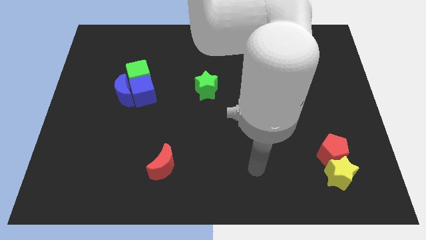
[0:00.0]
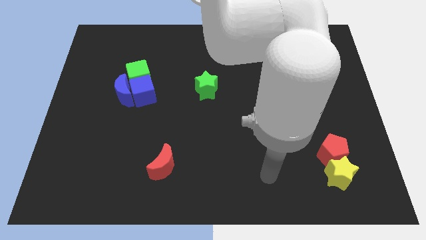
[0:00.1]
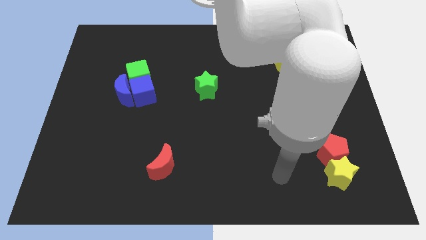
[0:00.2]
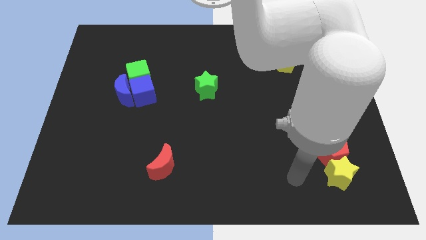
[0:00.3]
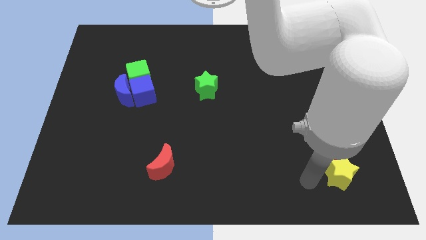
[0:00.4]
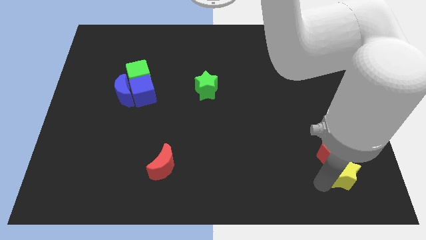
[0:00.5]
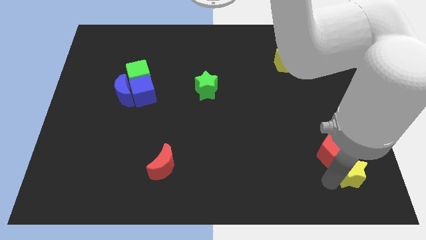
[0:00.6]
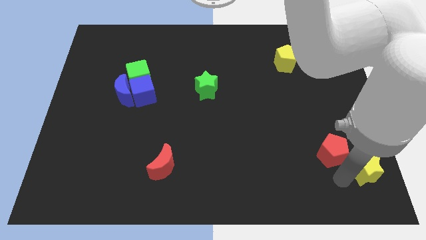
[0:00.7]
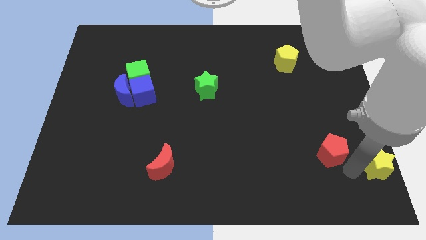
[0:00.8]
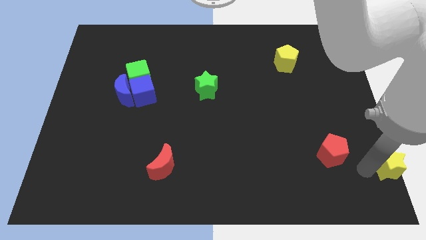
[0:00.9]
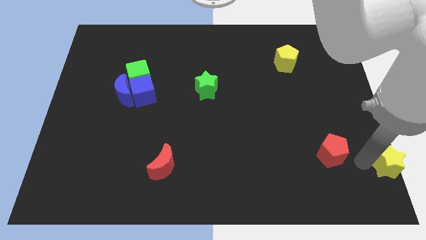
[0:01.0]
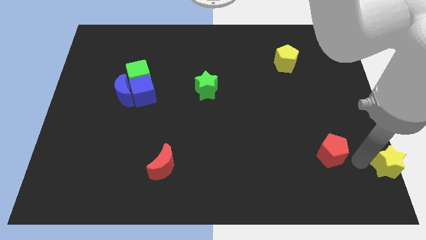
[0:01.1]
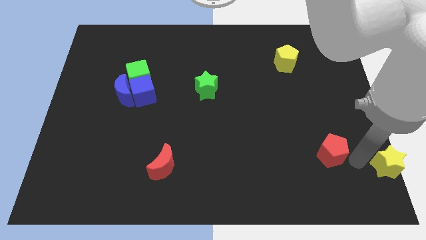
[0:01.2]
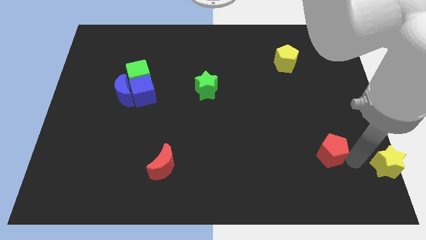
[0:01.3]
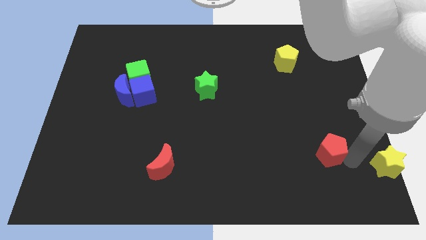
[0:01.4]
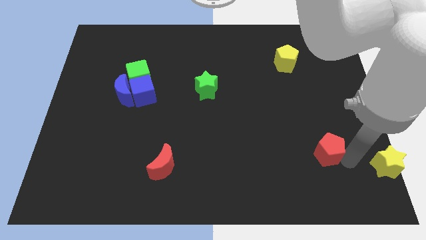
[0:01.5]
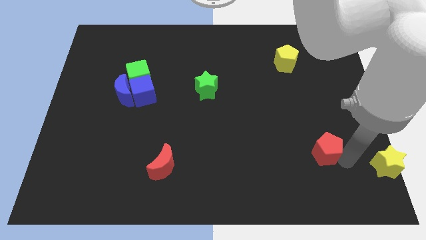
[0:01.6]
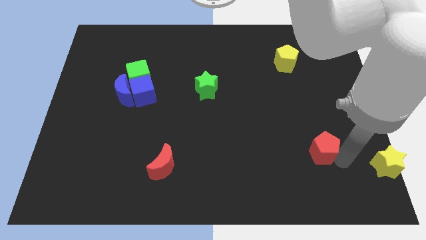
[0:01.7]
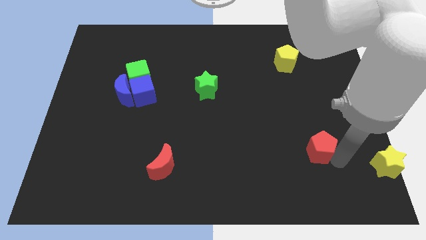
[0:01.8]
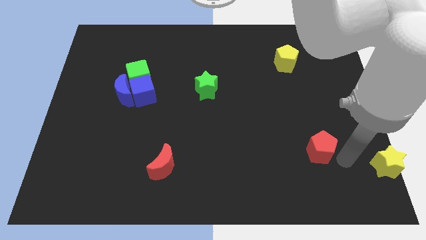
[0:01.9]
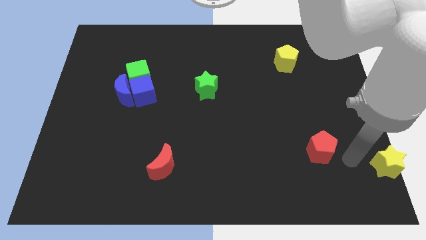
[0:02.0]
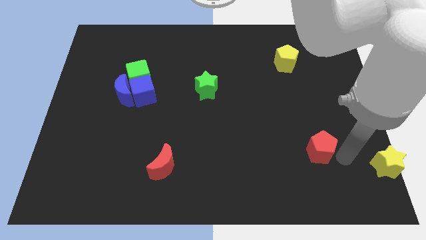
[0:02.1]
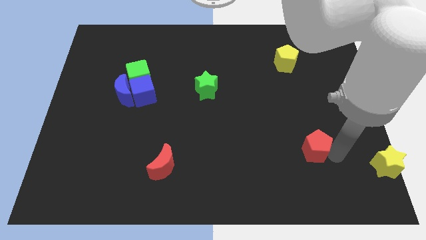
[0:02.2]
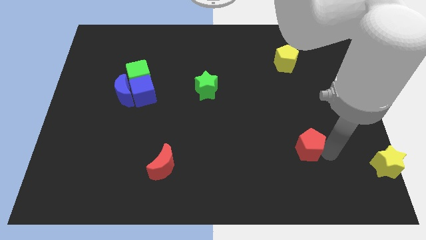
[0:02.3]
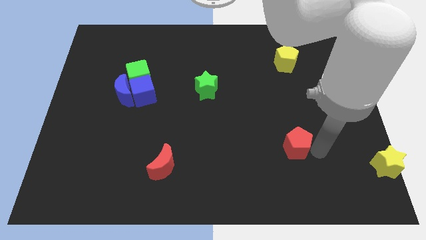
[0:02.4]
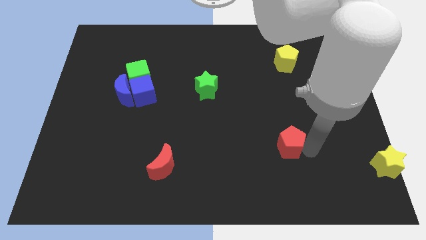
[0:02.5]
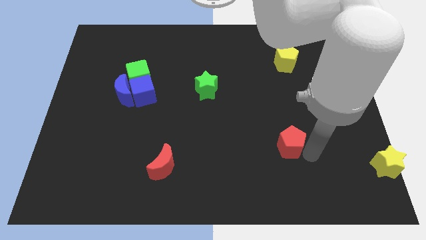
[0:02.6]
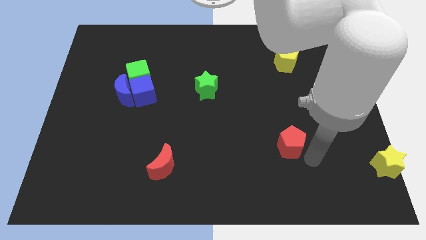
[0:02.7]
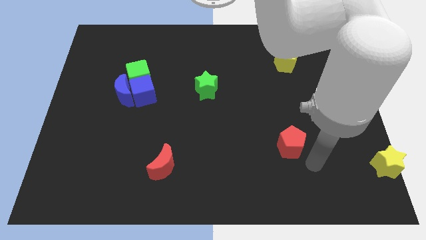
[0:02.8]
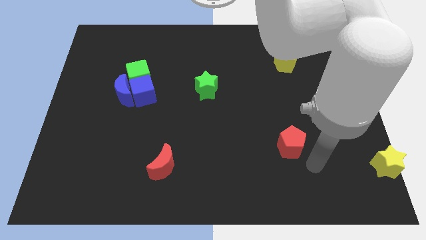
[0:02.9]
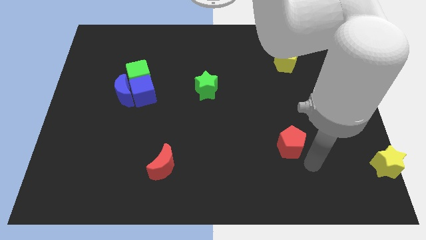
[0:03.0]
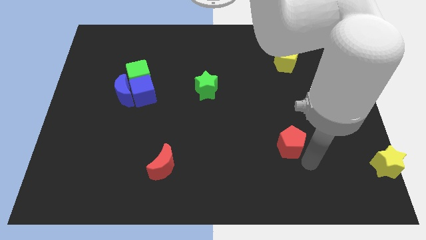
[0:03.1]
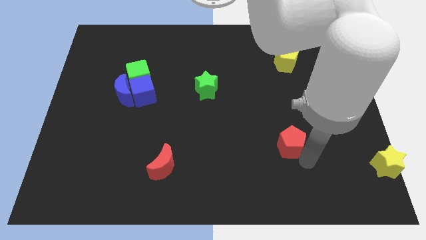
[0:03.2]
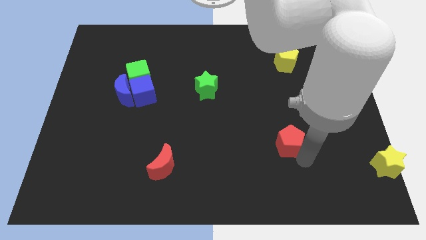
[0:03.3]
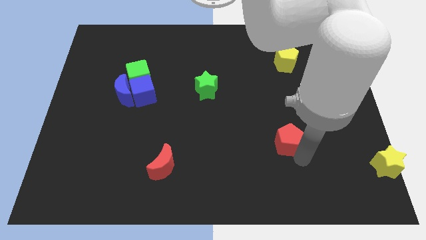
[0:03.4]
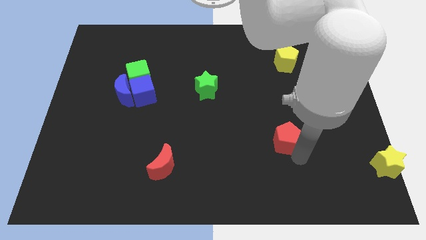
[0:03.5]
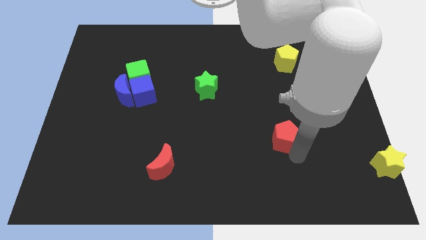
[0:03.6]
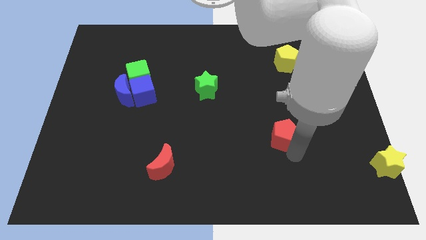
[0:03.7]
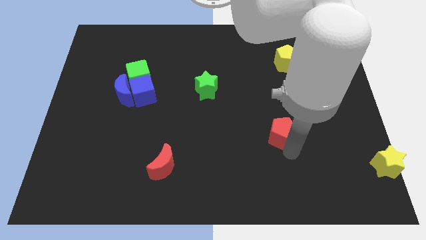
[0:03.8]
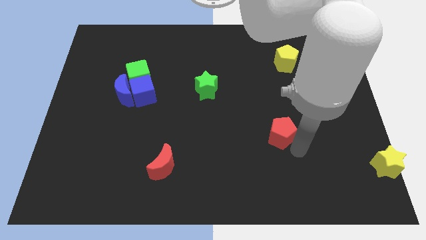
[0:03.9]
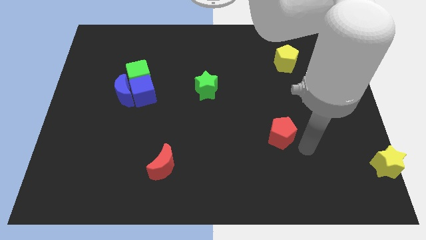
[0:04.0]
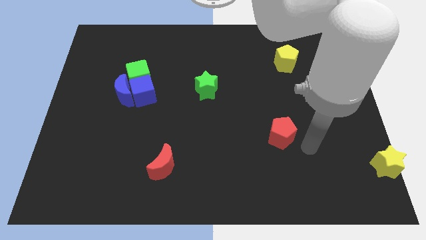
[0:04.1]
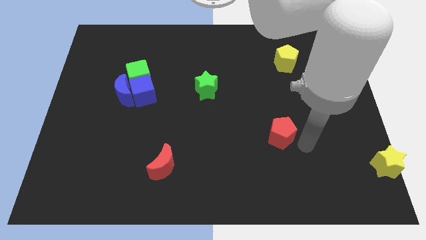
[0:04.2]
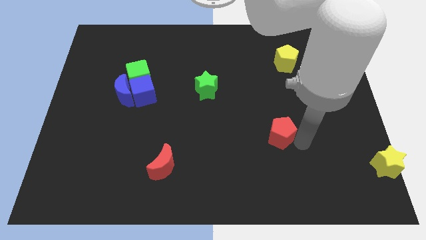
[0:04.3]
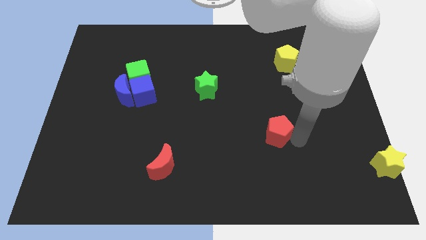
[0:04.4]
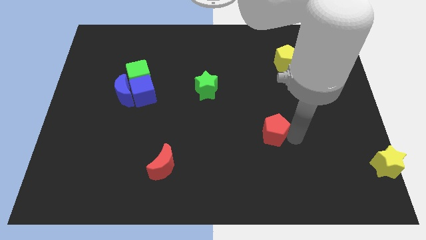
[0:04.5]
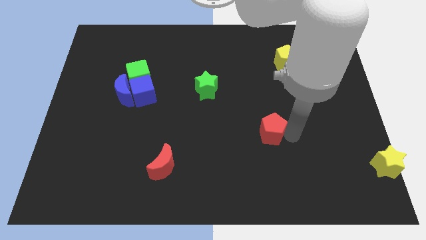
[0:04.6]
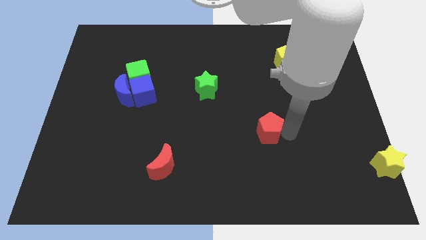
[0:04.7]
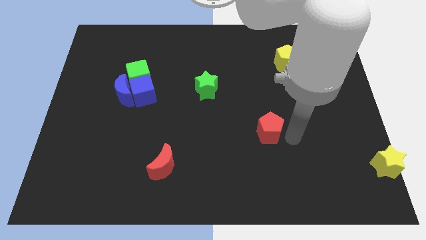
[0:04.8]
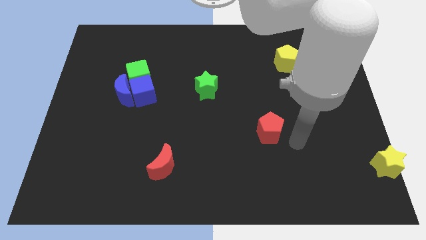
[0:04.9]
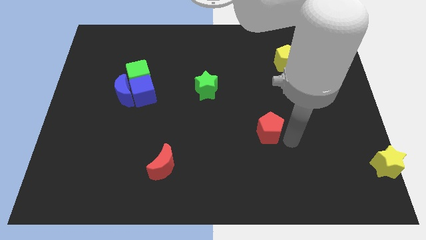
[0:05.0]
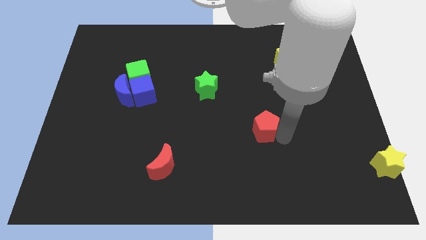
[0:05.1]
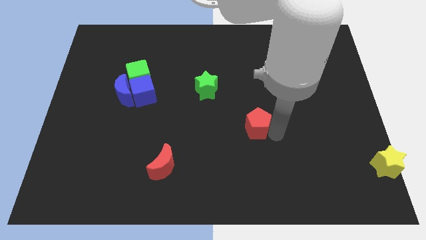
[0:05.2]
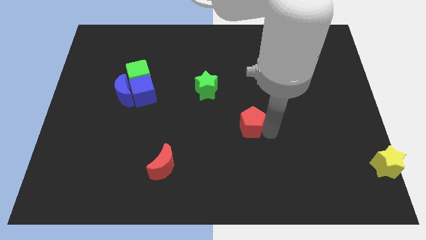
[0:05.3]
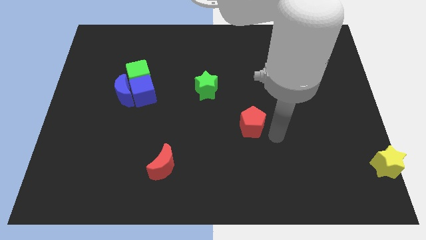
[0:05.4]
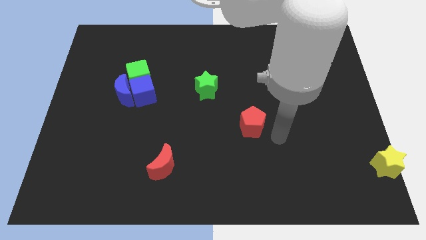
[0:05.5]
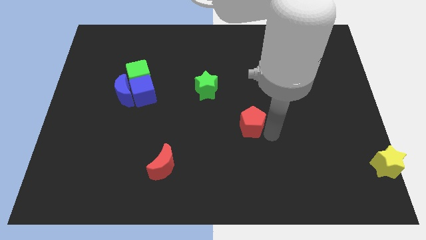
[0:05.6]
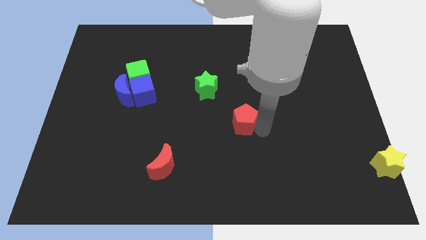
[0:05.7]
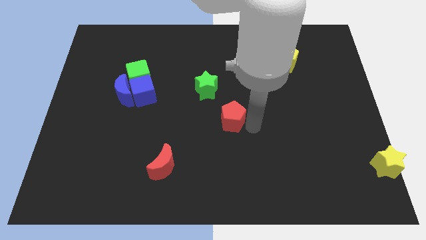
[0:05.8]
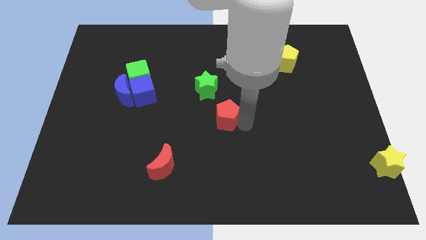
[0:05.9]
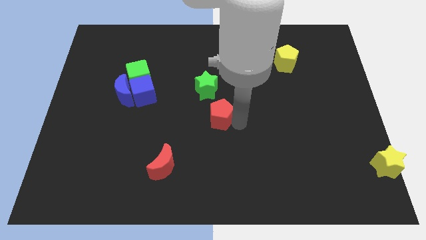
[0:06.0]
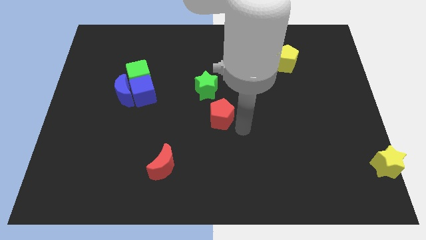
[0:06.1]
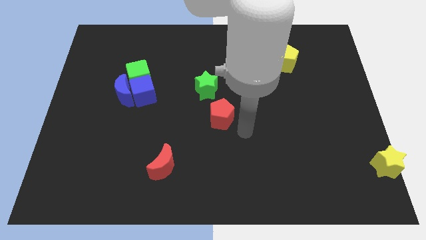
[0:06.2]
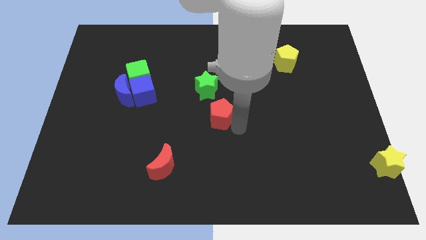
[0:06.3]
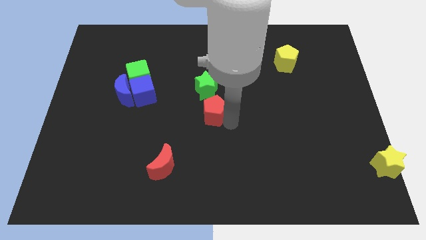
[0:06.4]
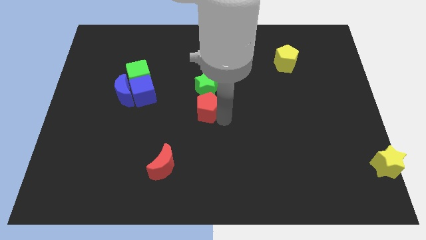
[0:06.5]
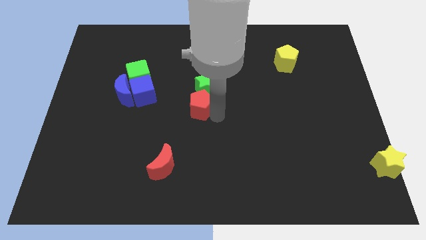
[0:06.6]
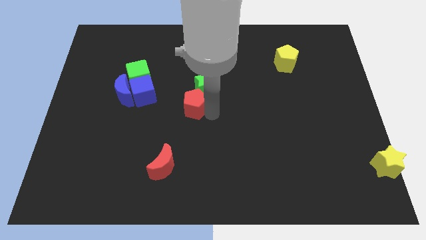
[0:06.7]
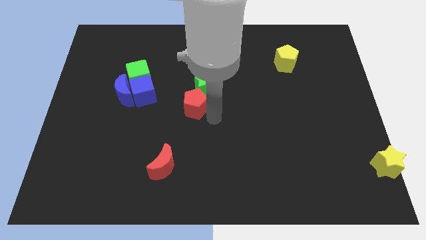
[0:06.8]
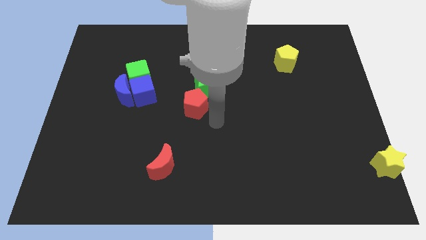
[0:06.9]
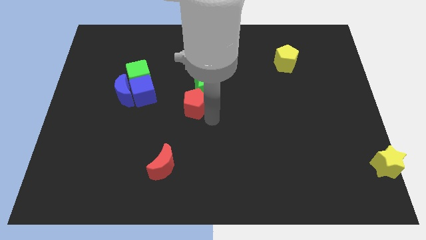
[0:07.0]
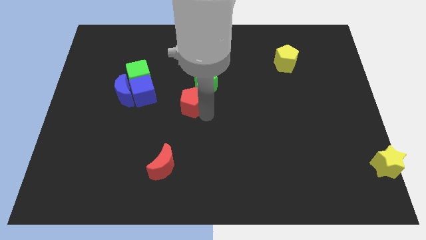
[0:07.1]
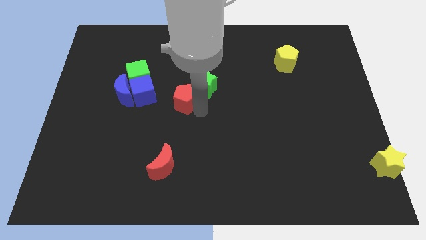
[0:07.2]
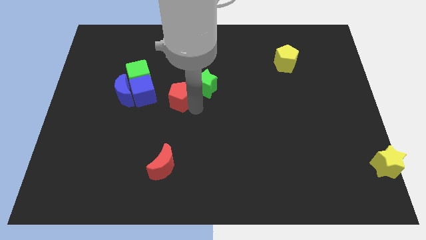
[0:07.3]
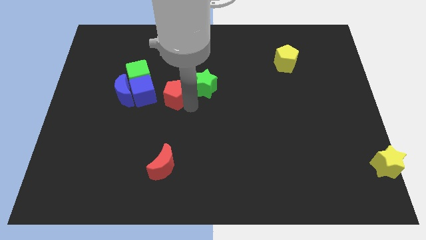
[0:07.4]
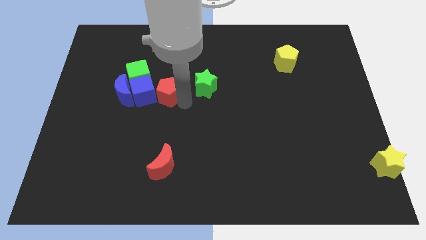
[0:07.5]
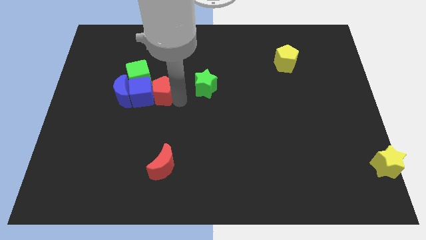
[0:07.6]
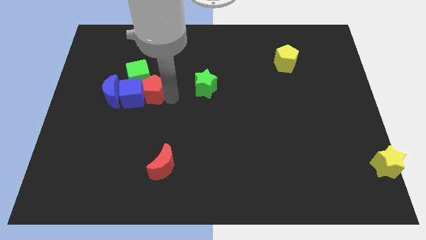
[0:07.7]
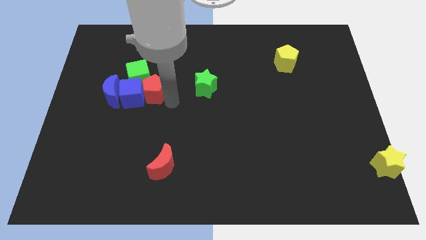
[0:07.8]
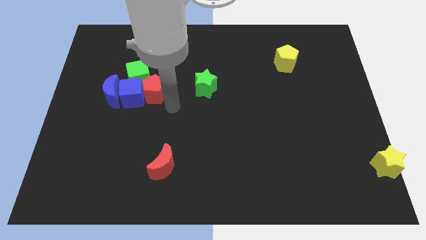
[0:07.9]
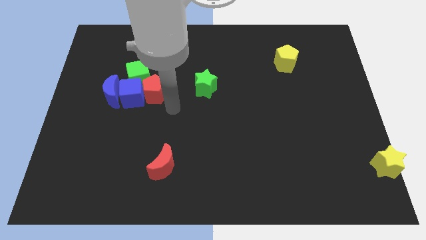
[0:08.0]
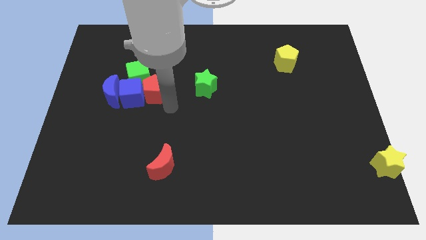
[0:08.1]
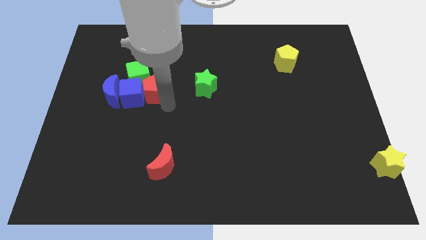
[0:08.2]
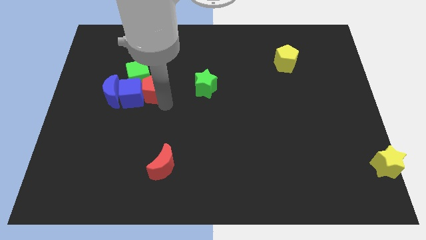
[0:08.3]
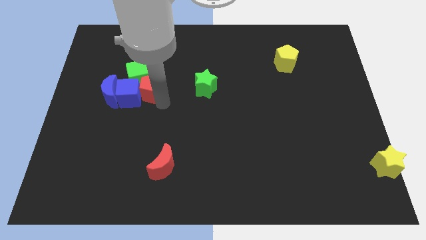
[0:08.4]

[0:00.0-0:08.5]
put the red pentagon close to the green cube
